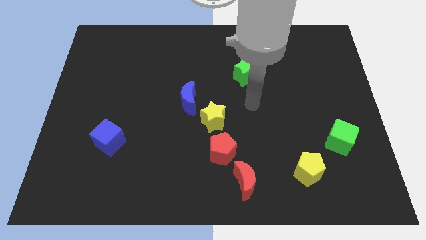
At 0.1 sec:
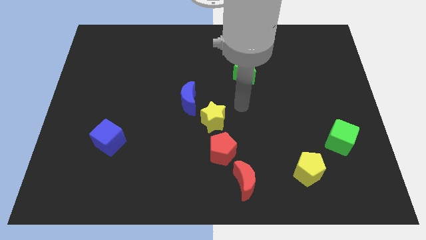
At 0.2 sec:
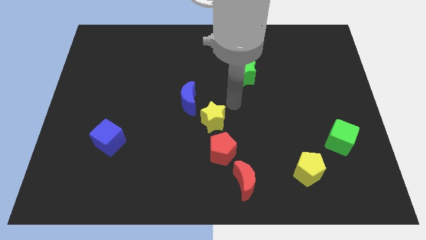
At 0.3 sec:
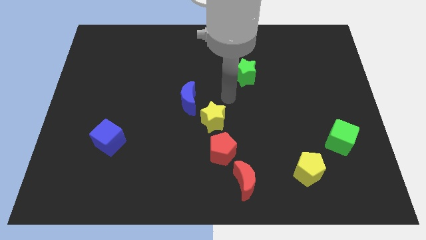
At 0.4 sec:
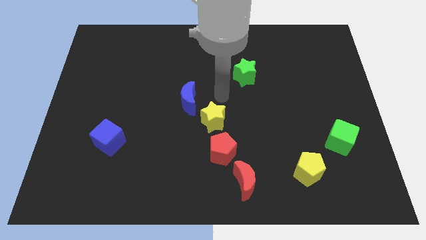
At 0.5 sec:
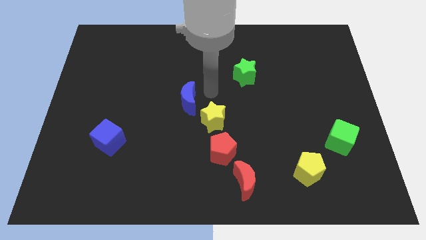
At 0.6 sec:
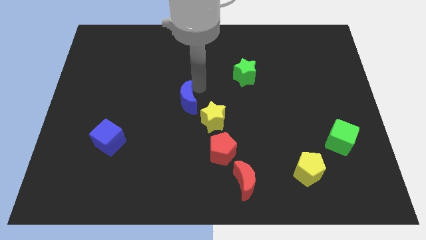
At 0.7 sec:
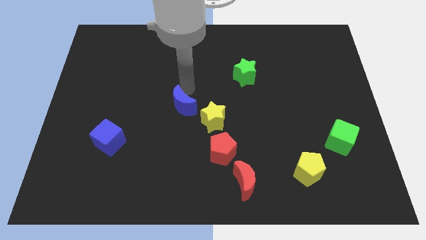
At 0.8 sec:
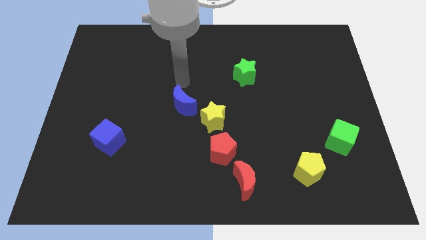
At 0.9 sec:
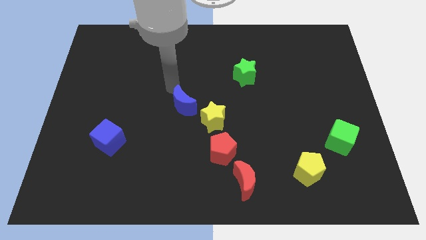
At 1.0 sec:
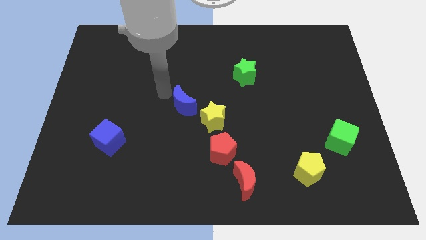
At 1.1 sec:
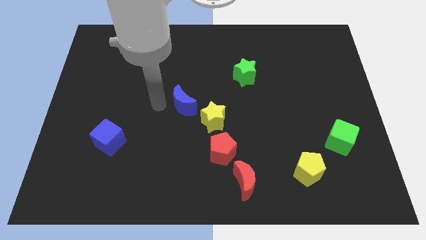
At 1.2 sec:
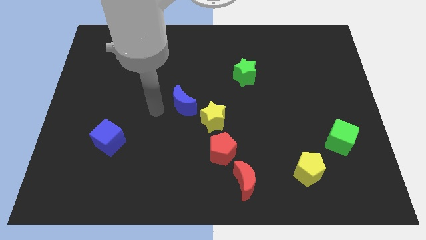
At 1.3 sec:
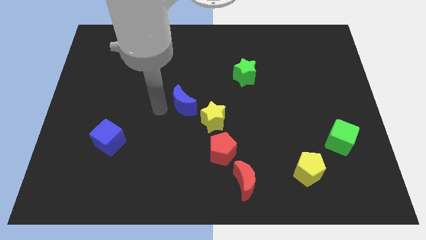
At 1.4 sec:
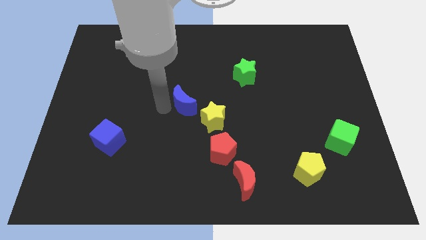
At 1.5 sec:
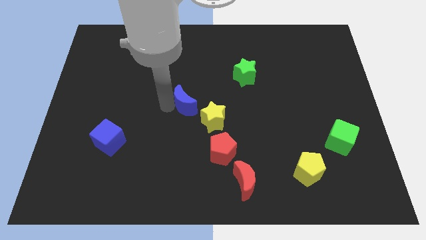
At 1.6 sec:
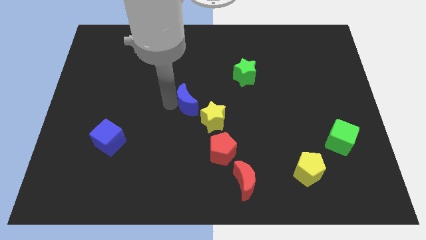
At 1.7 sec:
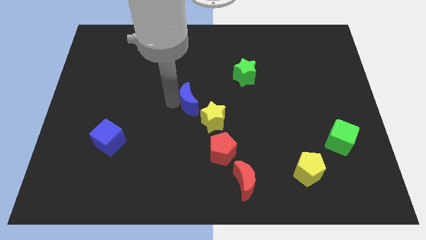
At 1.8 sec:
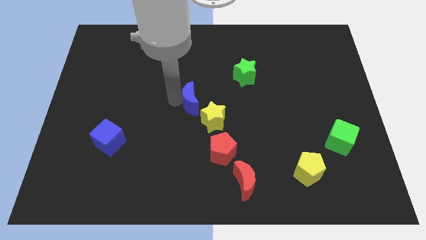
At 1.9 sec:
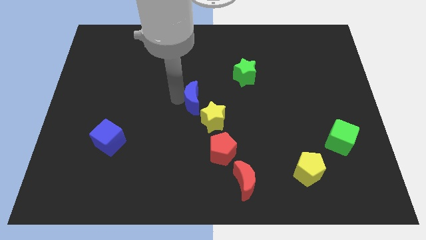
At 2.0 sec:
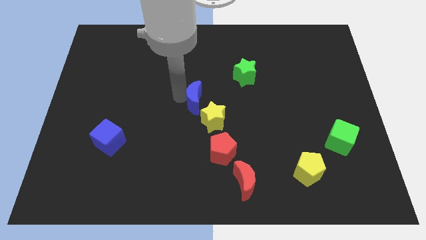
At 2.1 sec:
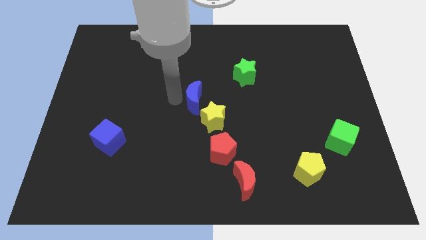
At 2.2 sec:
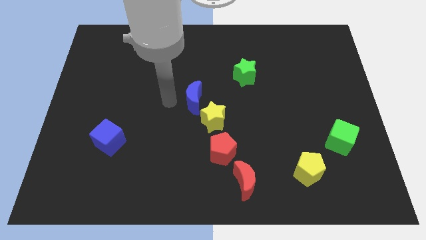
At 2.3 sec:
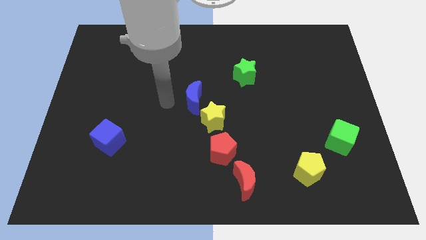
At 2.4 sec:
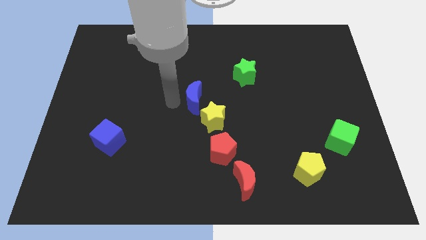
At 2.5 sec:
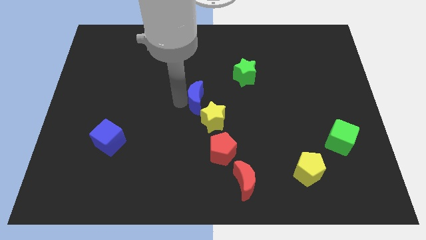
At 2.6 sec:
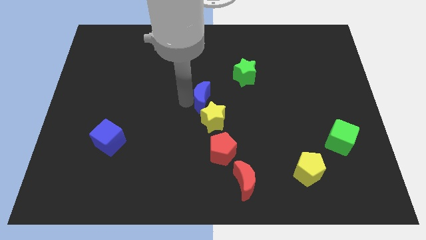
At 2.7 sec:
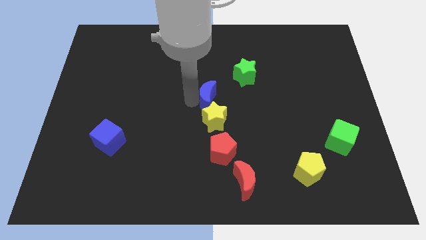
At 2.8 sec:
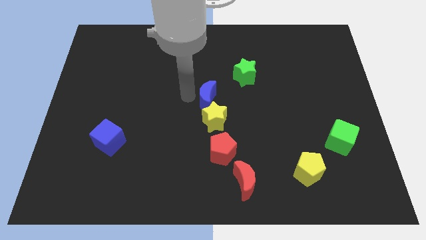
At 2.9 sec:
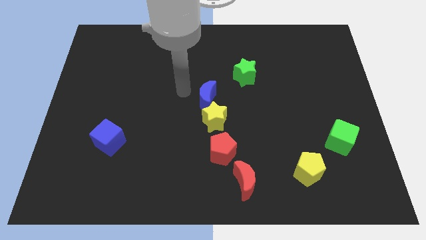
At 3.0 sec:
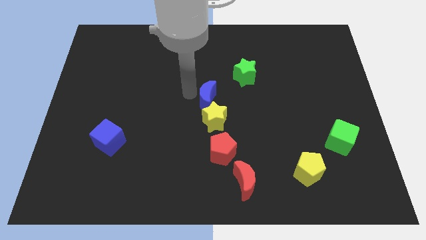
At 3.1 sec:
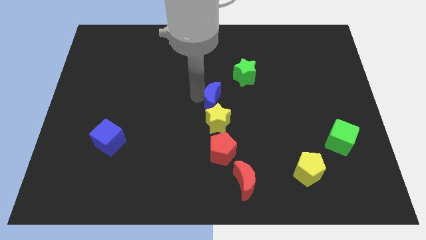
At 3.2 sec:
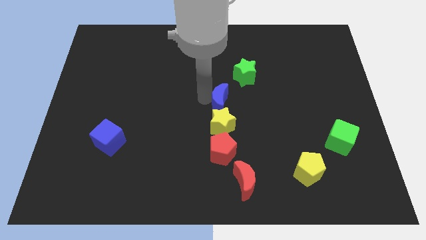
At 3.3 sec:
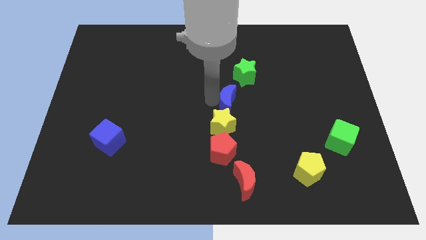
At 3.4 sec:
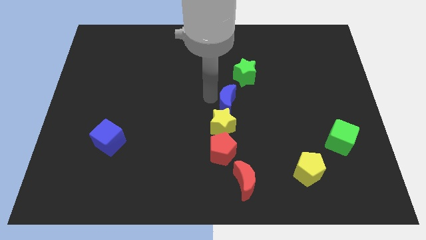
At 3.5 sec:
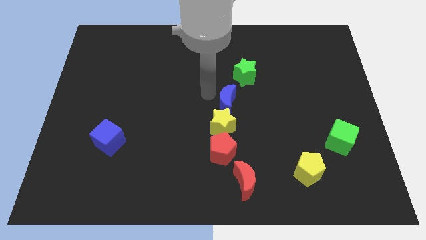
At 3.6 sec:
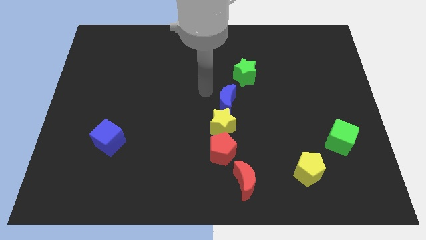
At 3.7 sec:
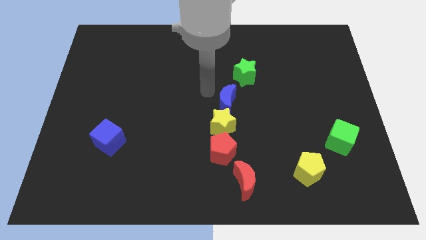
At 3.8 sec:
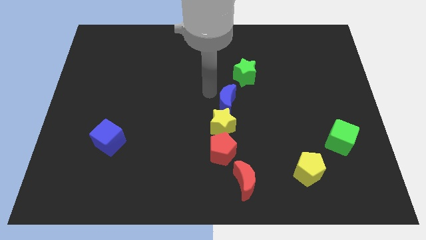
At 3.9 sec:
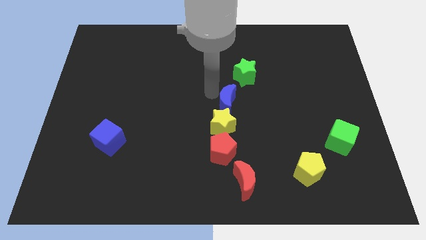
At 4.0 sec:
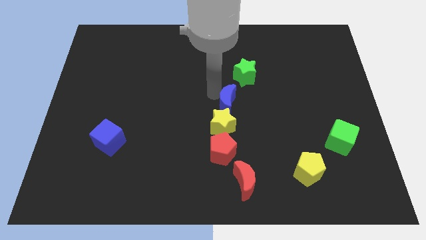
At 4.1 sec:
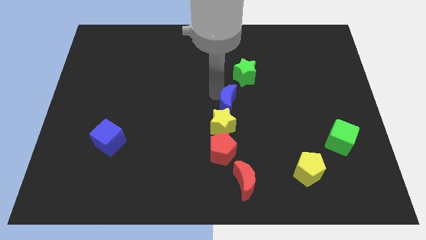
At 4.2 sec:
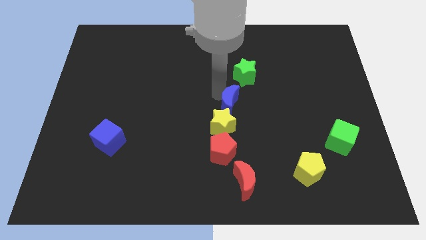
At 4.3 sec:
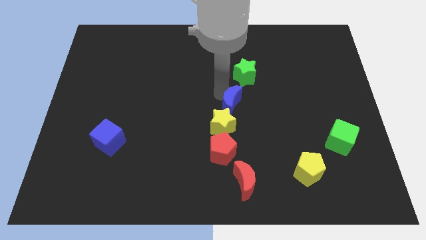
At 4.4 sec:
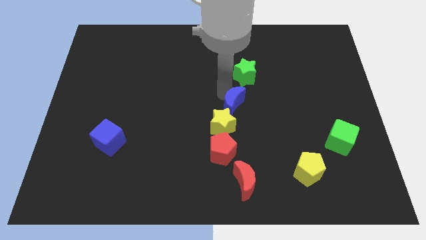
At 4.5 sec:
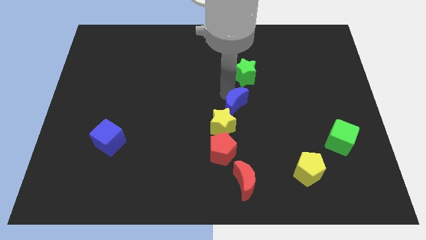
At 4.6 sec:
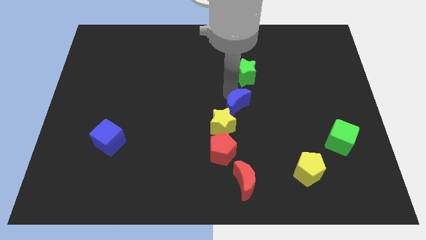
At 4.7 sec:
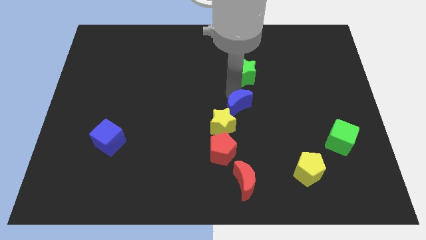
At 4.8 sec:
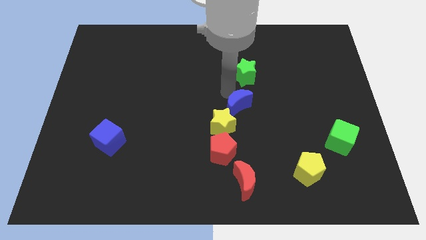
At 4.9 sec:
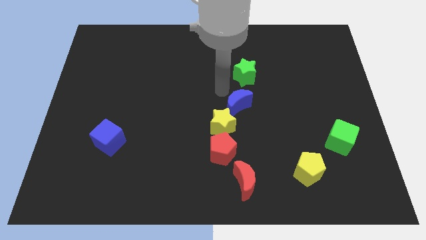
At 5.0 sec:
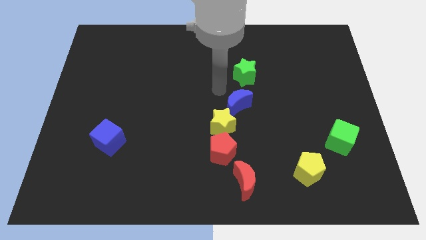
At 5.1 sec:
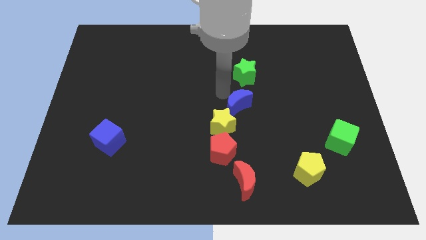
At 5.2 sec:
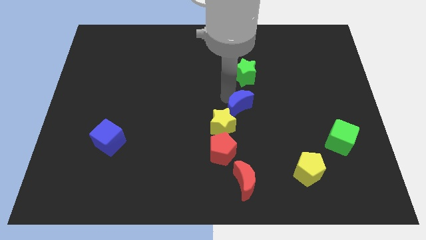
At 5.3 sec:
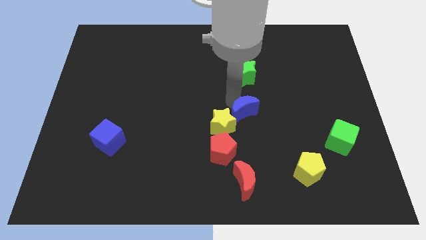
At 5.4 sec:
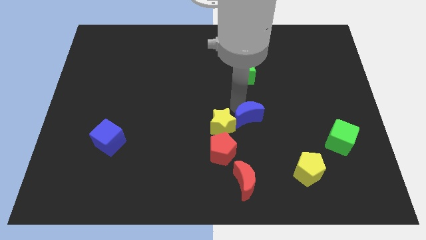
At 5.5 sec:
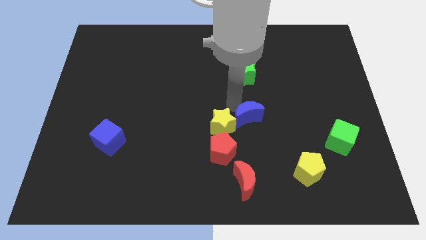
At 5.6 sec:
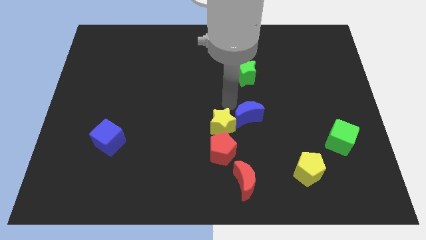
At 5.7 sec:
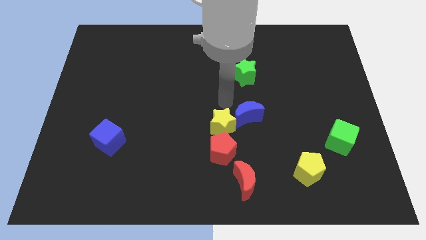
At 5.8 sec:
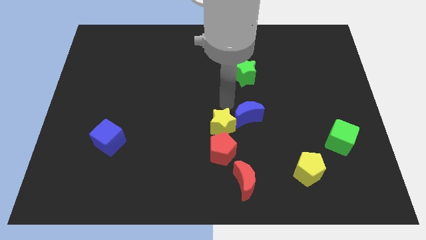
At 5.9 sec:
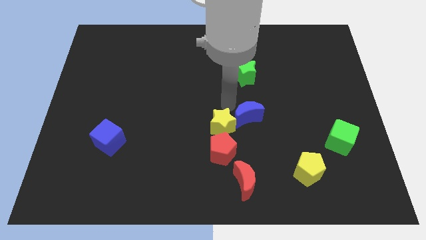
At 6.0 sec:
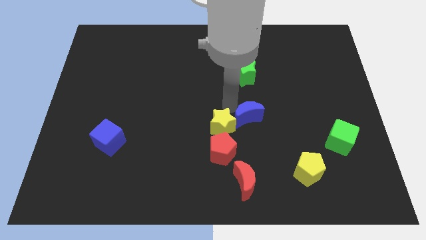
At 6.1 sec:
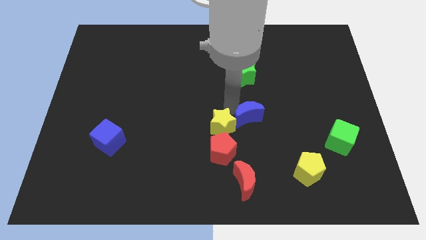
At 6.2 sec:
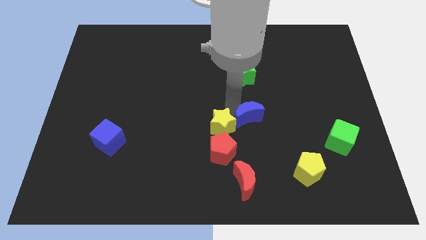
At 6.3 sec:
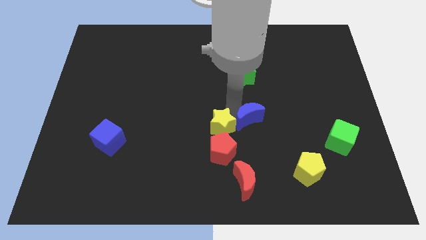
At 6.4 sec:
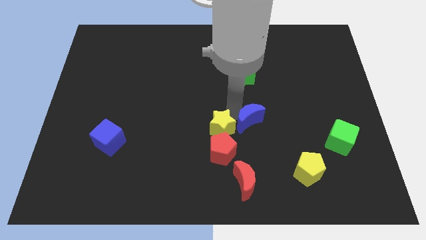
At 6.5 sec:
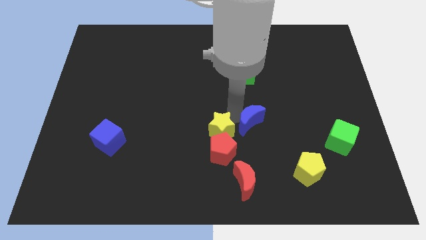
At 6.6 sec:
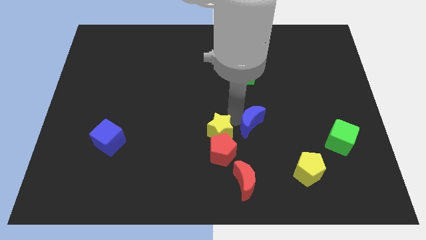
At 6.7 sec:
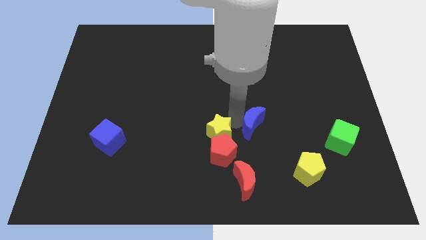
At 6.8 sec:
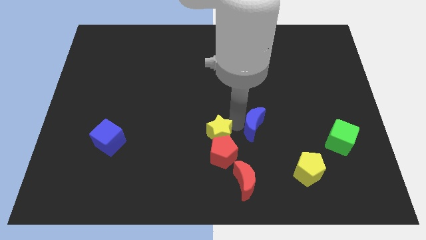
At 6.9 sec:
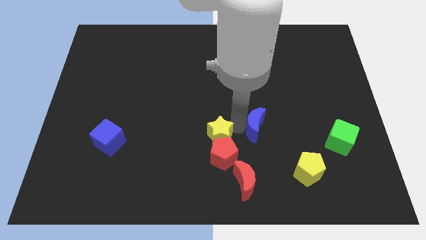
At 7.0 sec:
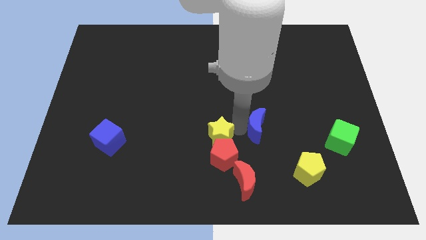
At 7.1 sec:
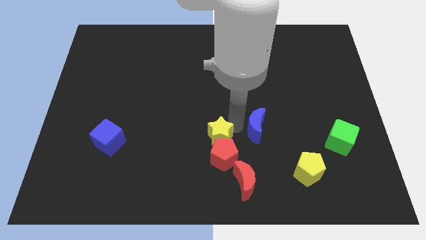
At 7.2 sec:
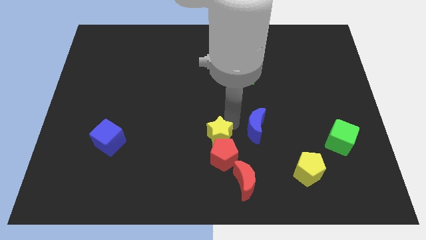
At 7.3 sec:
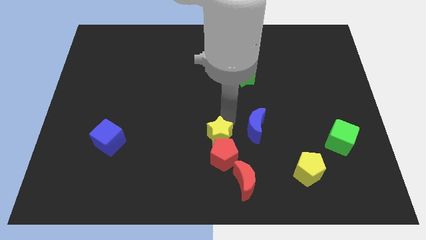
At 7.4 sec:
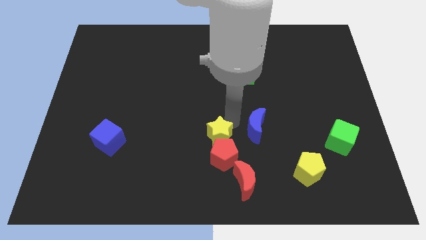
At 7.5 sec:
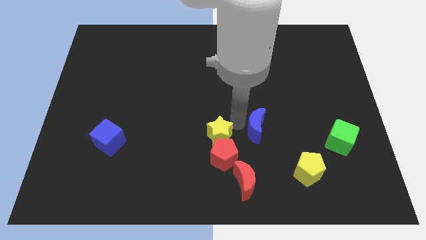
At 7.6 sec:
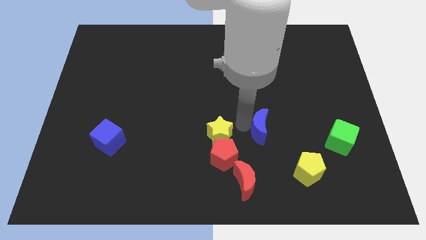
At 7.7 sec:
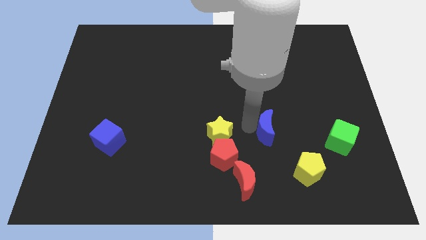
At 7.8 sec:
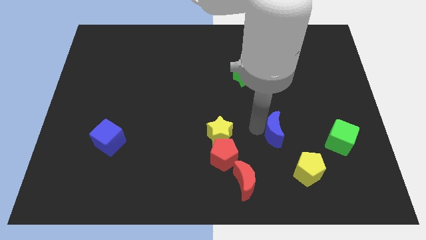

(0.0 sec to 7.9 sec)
move the blue moon to the left side of the green cube
